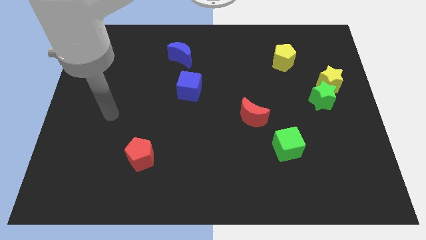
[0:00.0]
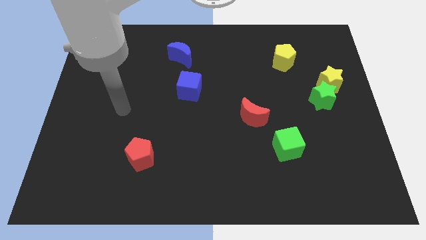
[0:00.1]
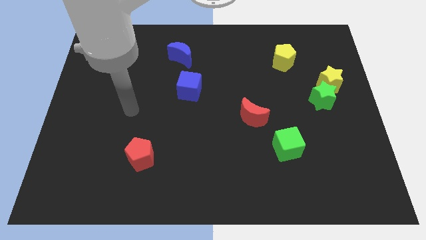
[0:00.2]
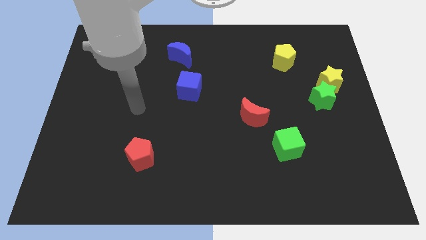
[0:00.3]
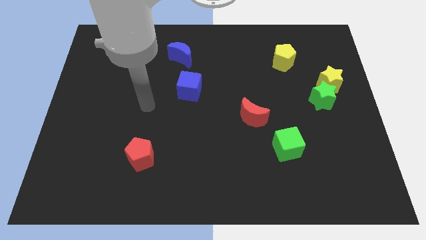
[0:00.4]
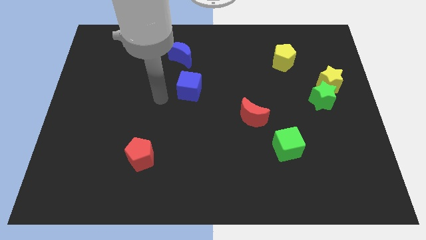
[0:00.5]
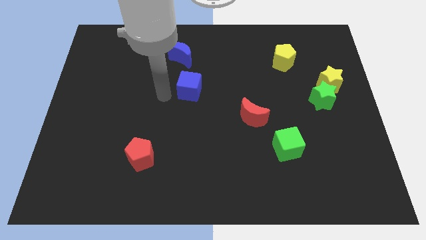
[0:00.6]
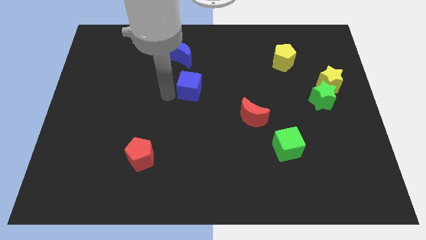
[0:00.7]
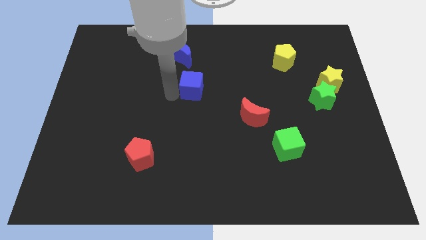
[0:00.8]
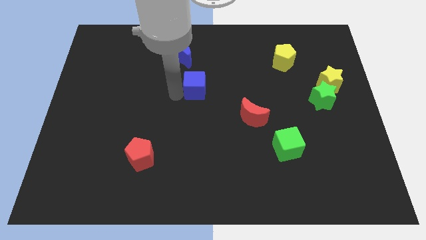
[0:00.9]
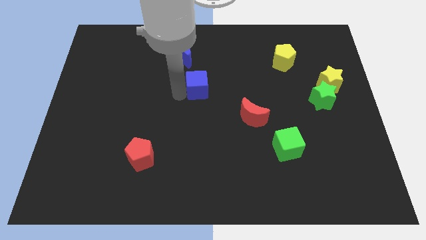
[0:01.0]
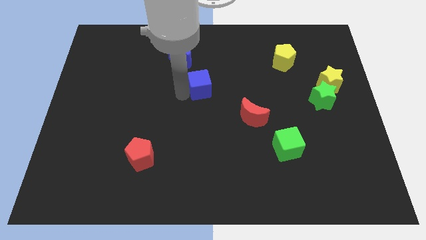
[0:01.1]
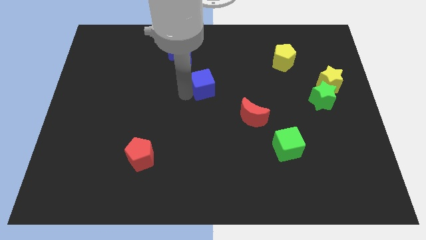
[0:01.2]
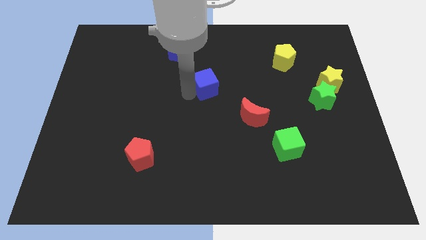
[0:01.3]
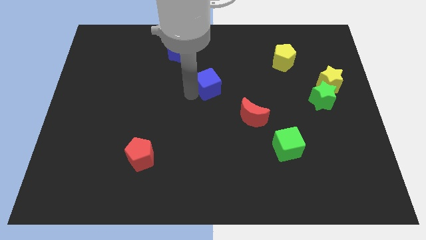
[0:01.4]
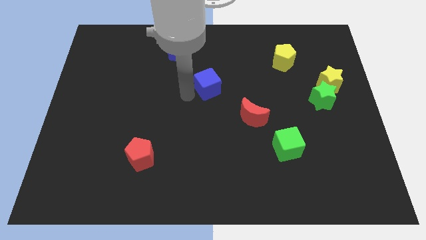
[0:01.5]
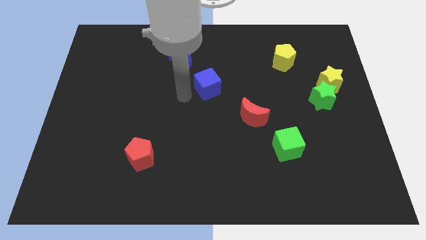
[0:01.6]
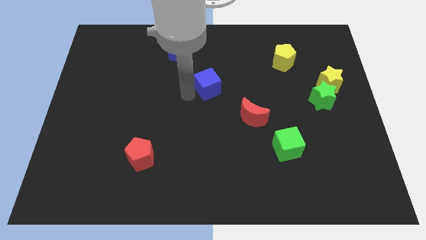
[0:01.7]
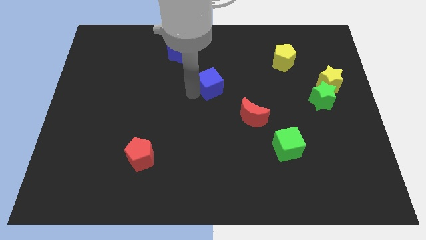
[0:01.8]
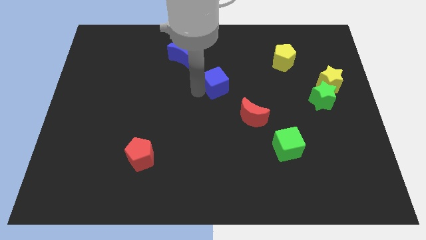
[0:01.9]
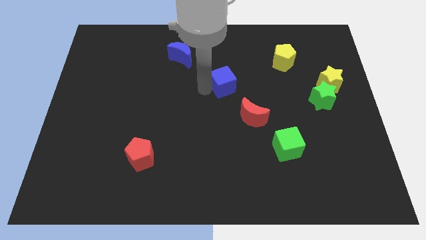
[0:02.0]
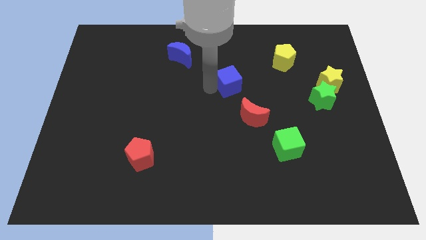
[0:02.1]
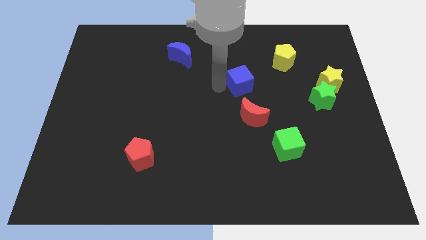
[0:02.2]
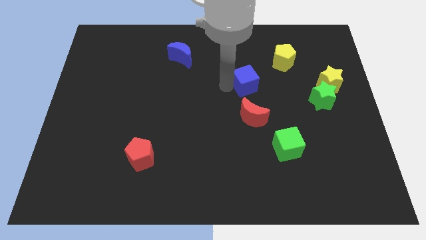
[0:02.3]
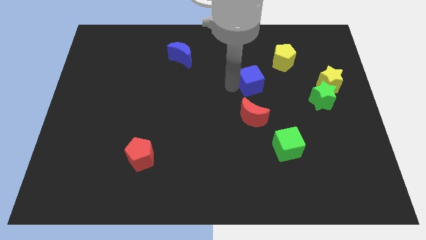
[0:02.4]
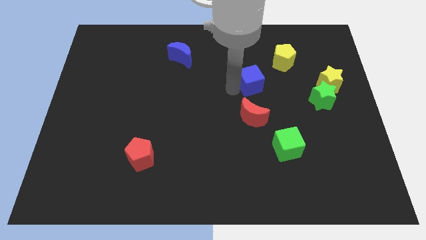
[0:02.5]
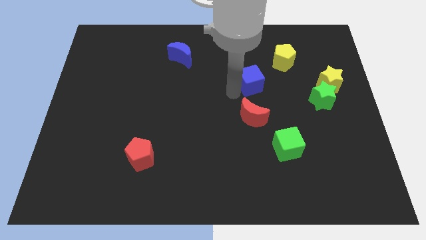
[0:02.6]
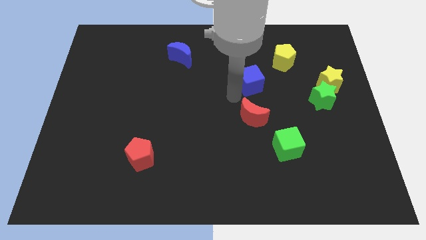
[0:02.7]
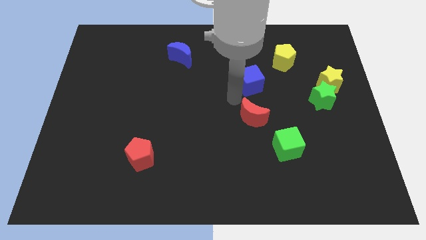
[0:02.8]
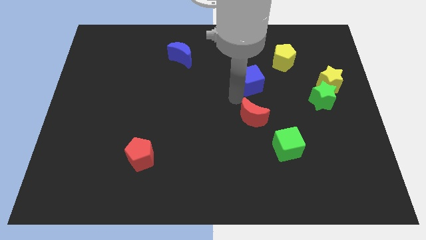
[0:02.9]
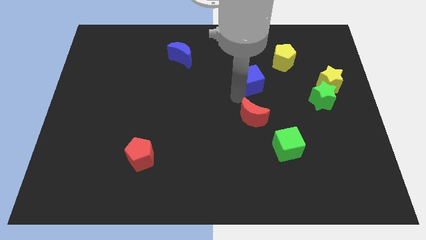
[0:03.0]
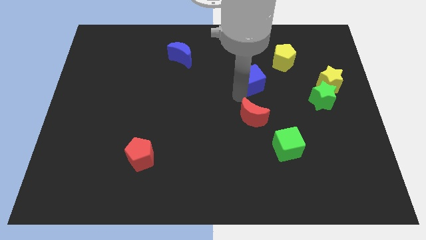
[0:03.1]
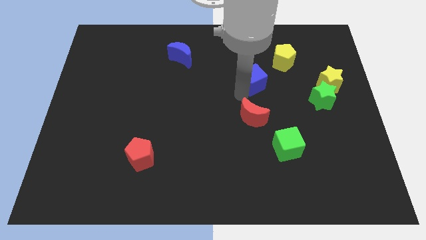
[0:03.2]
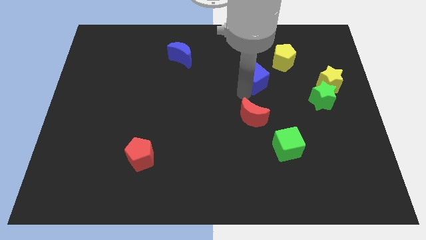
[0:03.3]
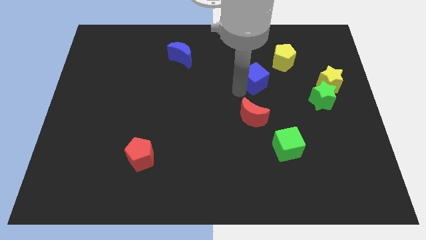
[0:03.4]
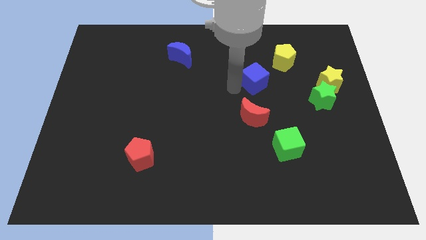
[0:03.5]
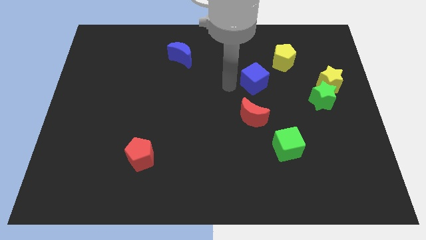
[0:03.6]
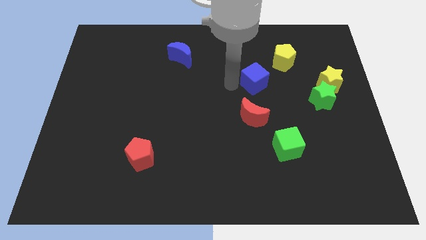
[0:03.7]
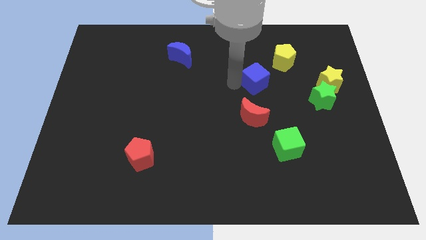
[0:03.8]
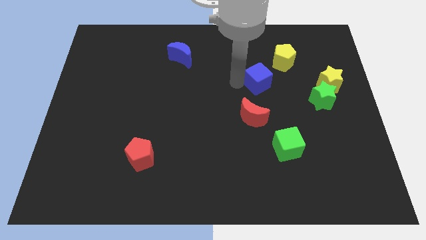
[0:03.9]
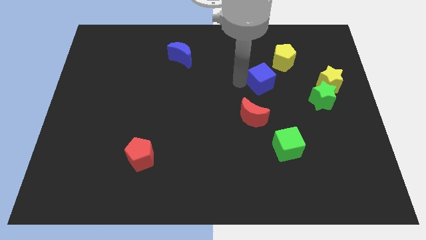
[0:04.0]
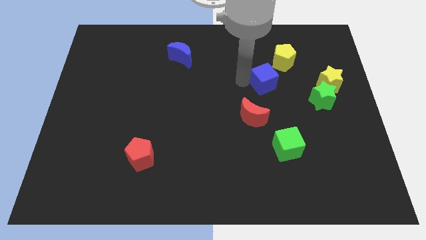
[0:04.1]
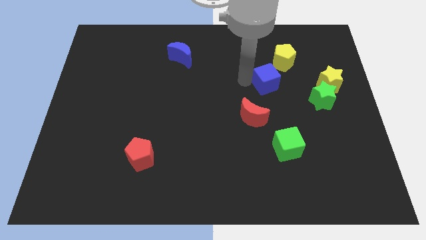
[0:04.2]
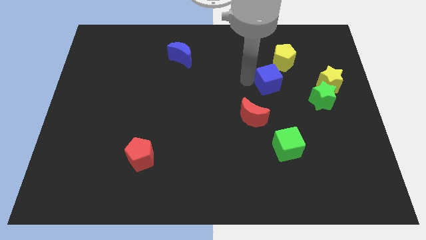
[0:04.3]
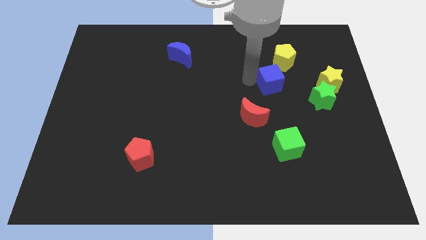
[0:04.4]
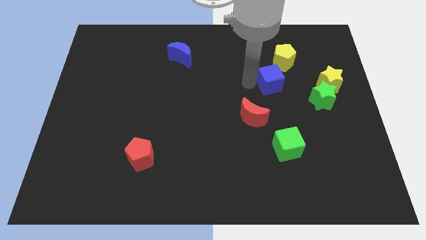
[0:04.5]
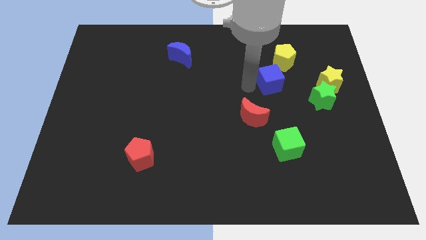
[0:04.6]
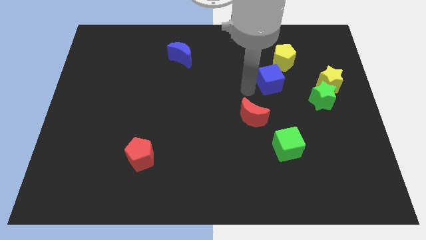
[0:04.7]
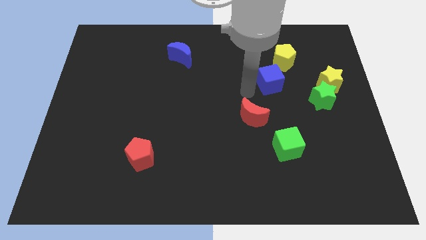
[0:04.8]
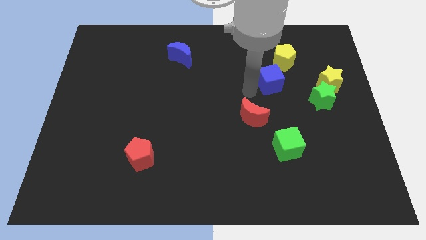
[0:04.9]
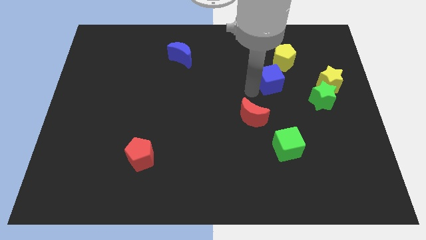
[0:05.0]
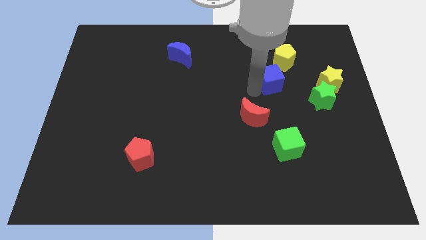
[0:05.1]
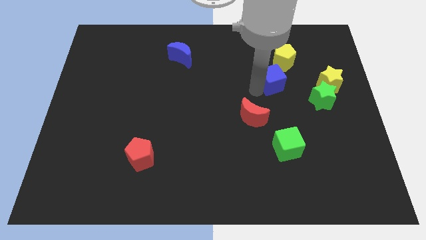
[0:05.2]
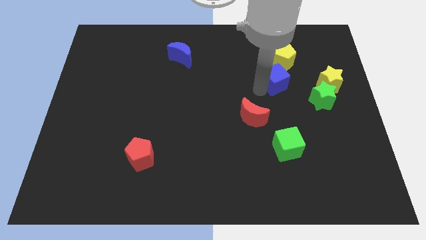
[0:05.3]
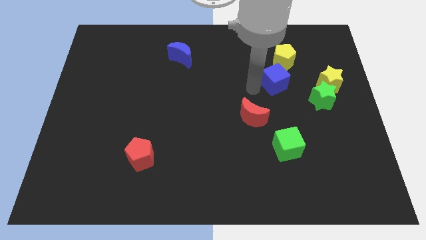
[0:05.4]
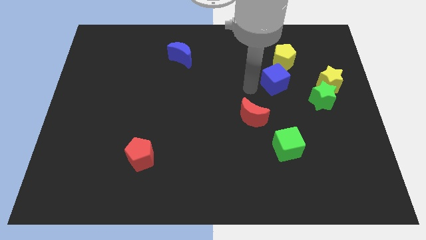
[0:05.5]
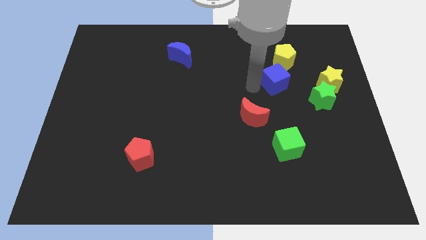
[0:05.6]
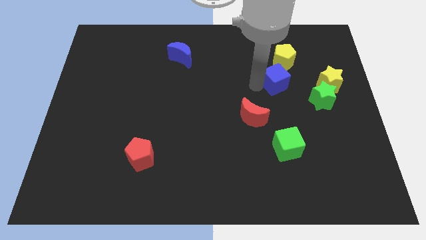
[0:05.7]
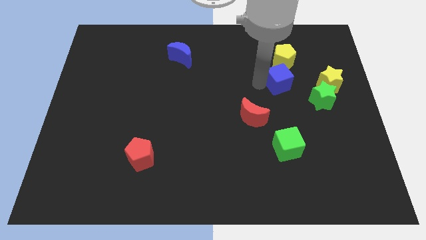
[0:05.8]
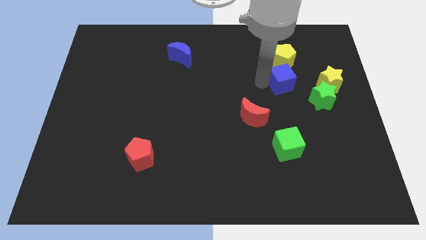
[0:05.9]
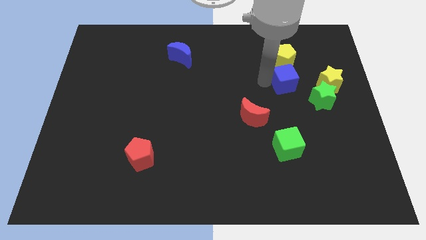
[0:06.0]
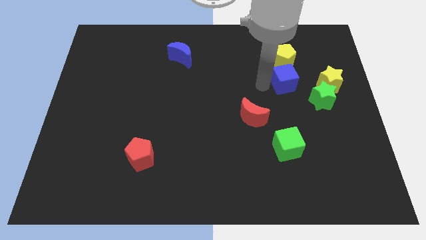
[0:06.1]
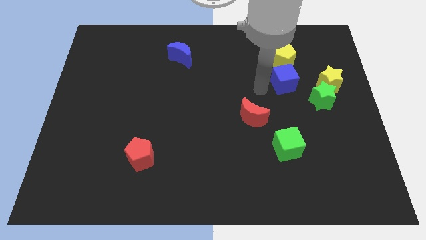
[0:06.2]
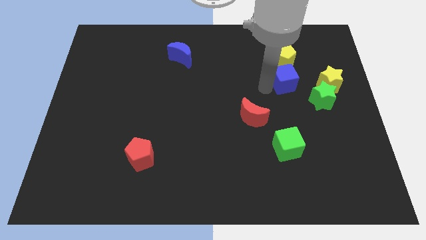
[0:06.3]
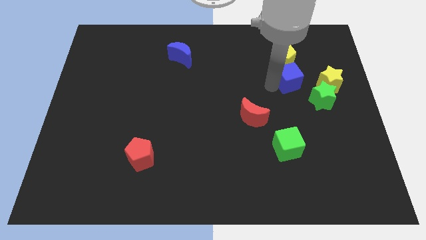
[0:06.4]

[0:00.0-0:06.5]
move the blue cube diagonally down and to the right of the yellow pentagon
